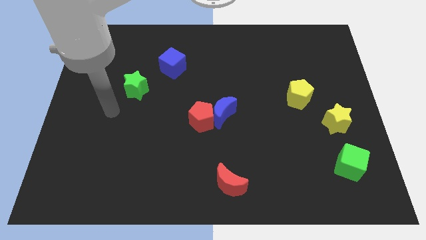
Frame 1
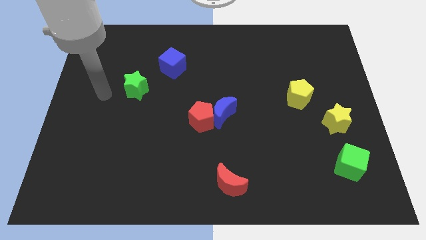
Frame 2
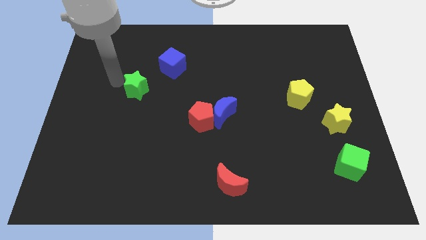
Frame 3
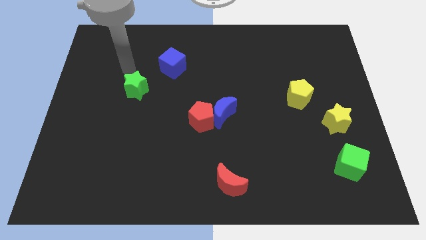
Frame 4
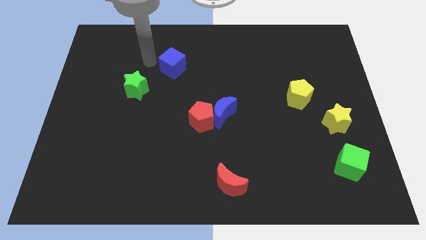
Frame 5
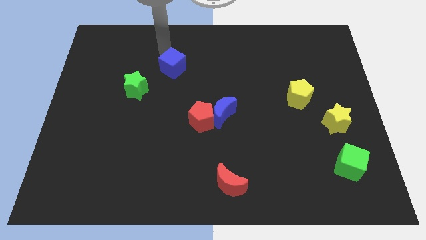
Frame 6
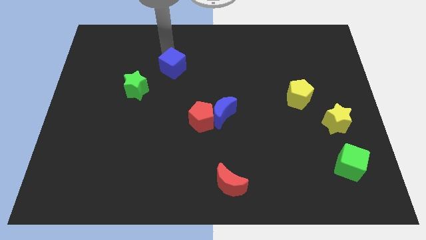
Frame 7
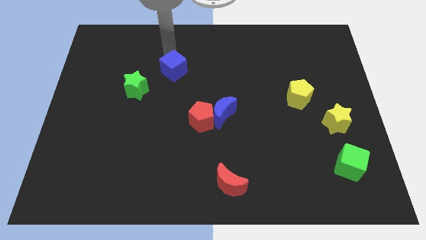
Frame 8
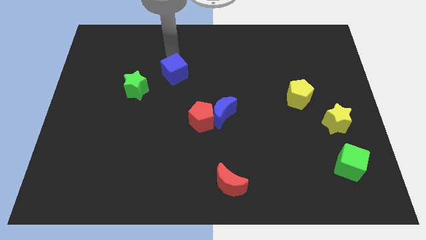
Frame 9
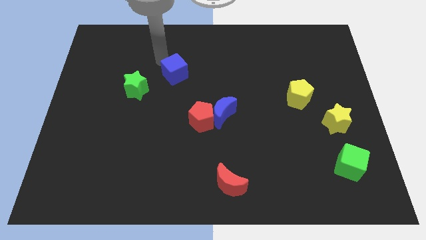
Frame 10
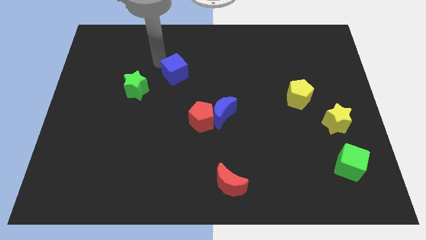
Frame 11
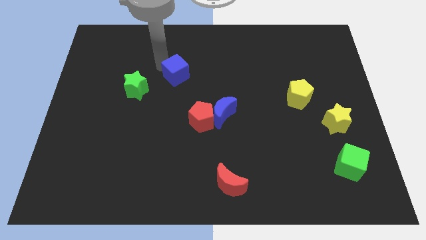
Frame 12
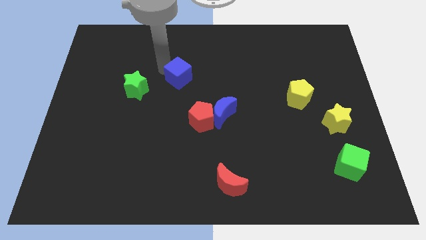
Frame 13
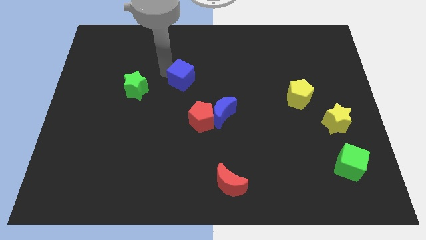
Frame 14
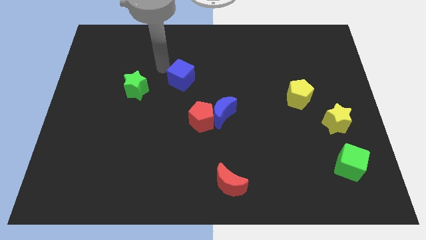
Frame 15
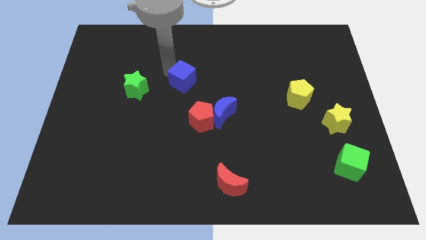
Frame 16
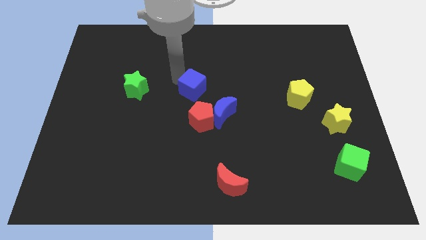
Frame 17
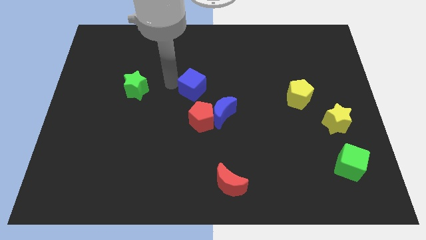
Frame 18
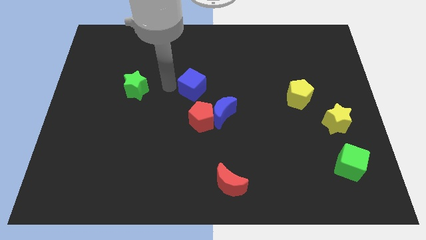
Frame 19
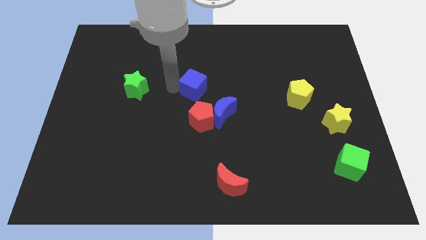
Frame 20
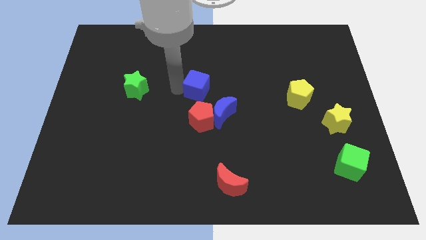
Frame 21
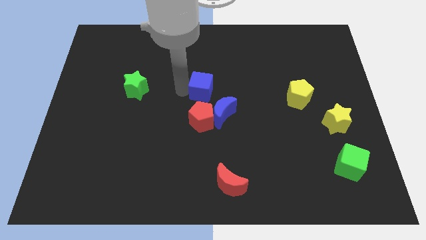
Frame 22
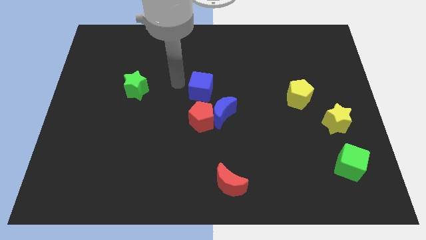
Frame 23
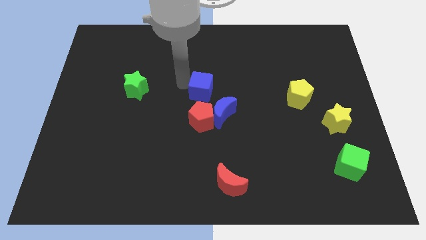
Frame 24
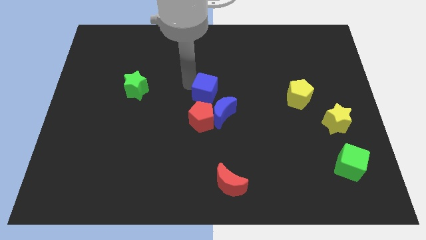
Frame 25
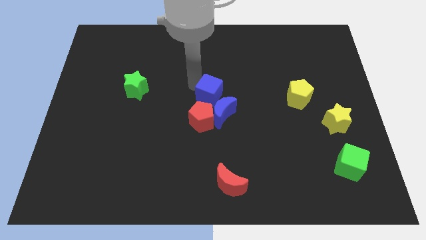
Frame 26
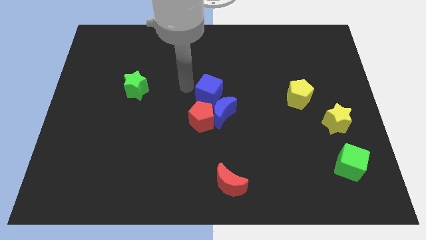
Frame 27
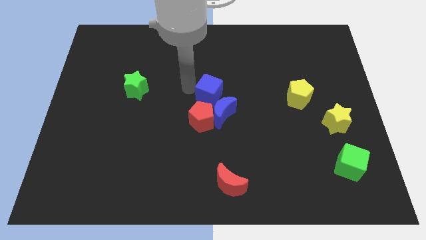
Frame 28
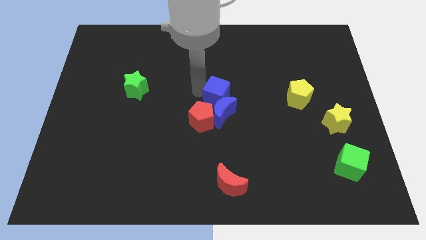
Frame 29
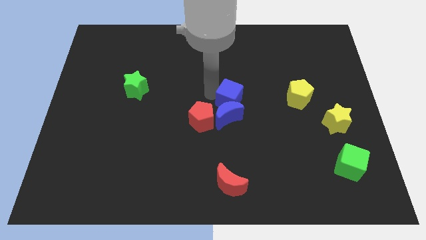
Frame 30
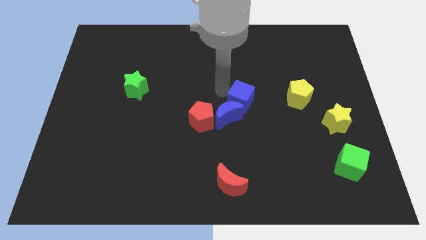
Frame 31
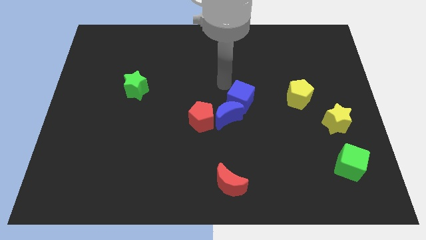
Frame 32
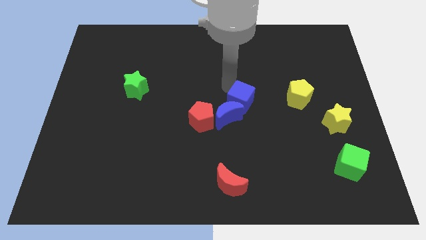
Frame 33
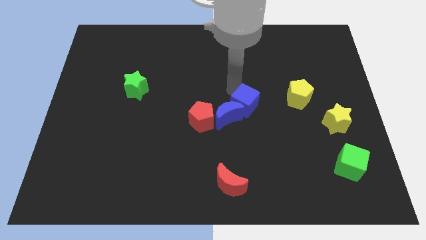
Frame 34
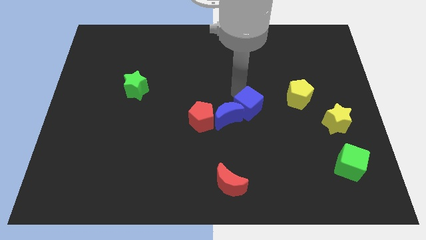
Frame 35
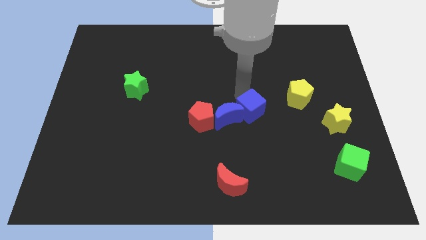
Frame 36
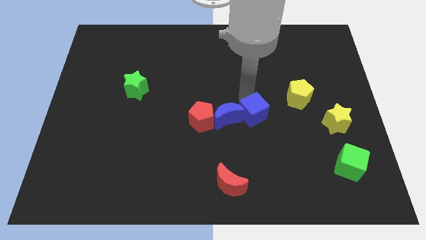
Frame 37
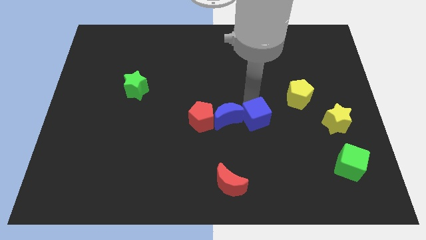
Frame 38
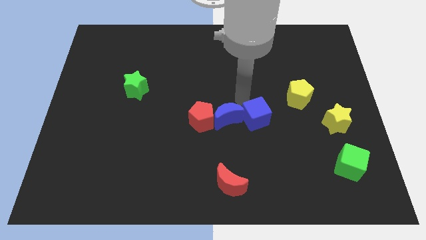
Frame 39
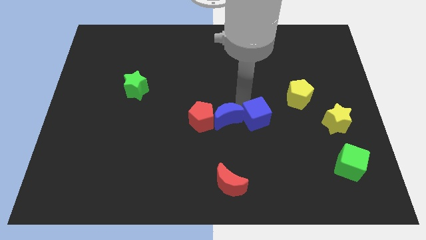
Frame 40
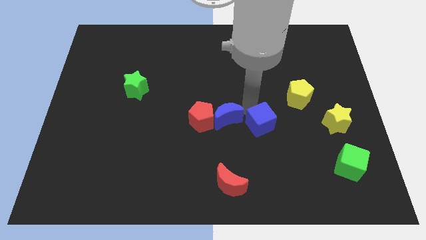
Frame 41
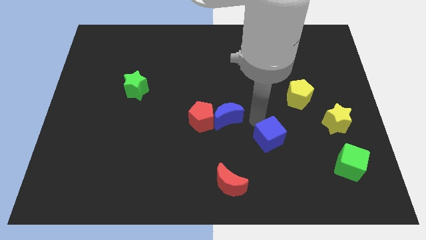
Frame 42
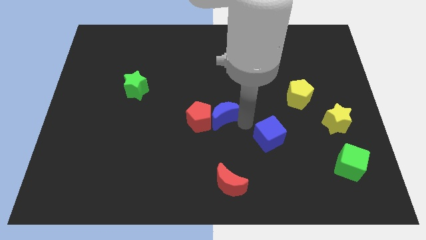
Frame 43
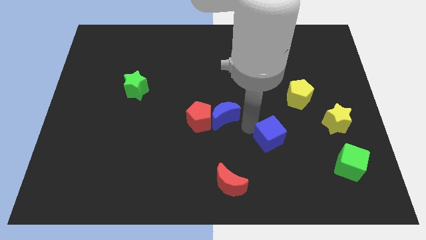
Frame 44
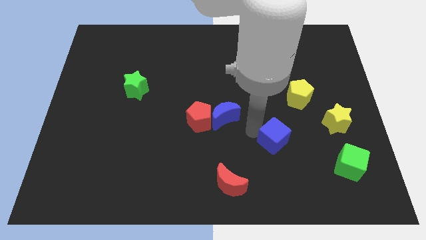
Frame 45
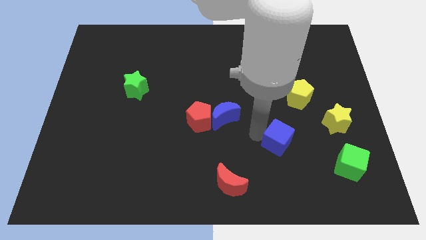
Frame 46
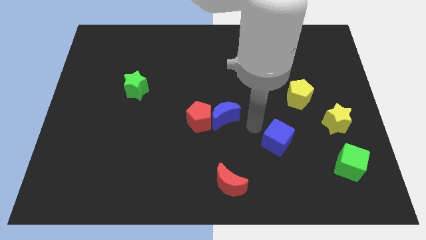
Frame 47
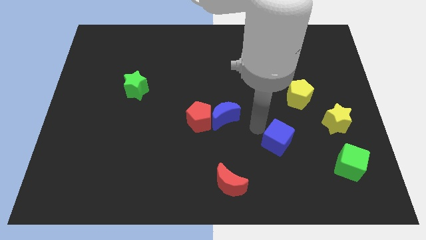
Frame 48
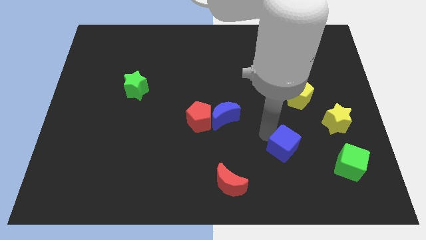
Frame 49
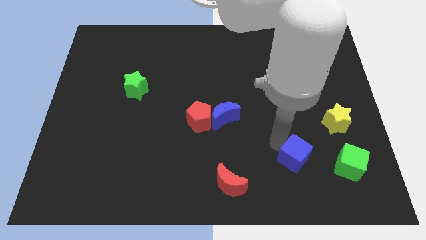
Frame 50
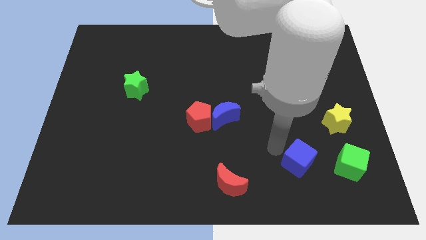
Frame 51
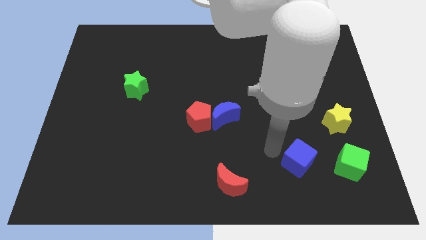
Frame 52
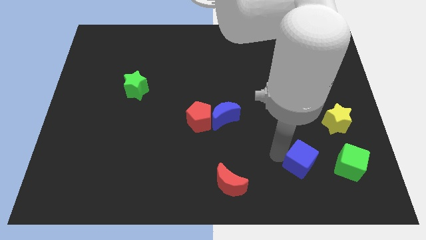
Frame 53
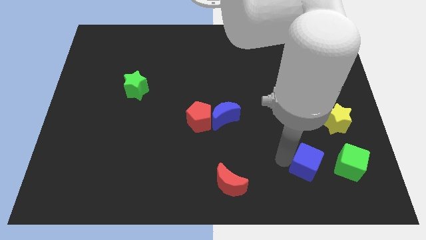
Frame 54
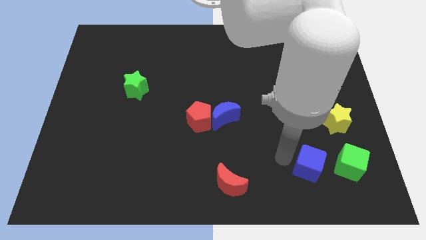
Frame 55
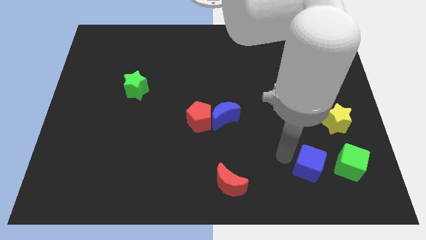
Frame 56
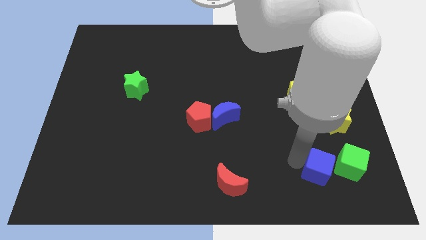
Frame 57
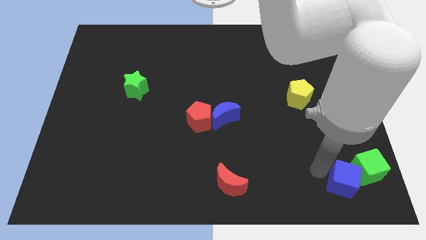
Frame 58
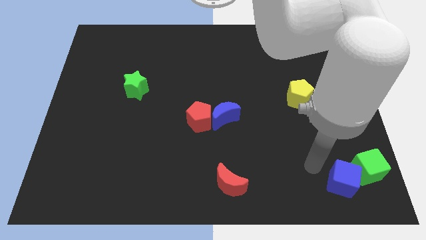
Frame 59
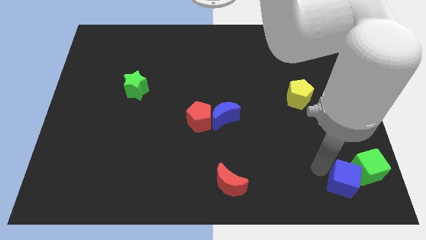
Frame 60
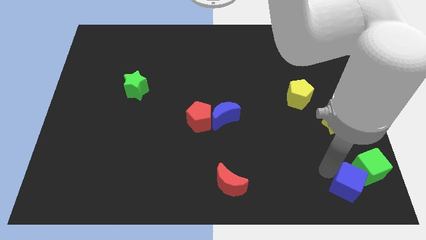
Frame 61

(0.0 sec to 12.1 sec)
push the blue cube to the bottom right

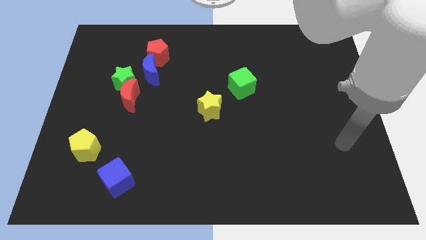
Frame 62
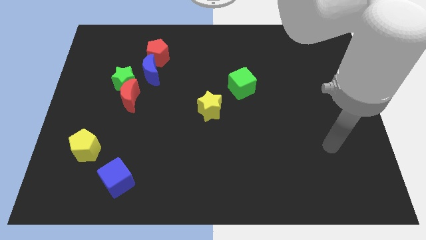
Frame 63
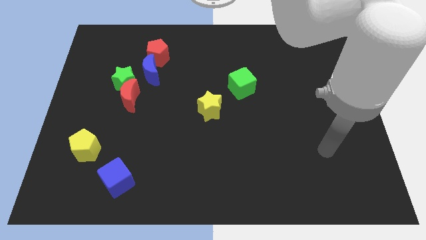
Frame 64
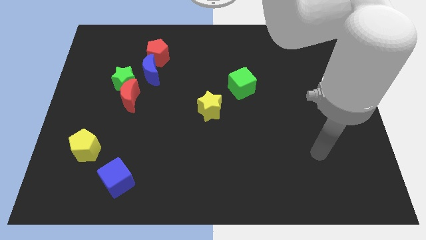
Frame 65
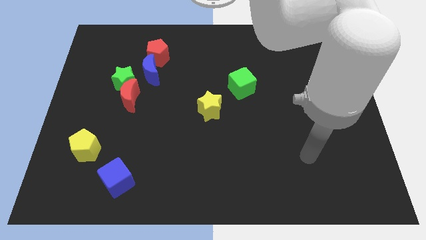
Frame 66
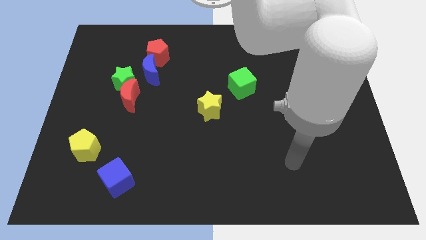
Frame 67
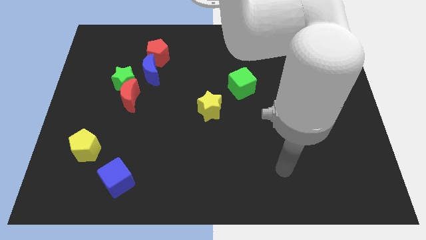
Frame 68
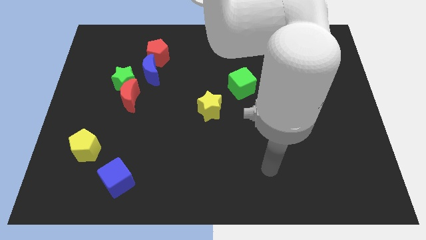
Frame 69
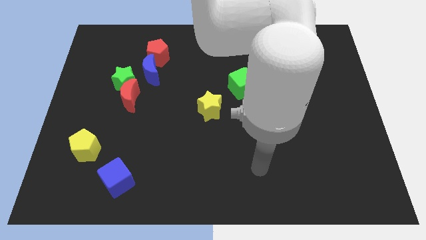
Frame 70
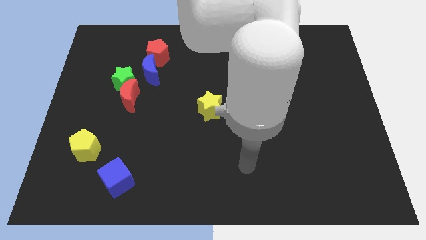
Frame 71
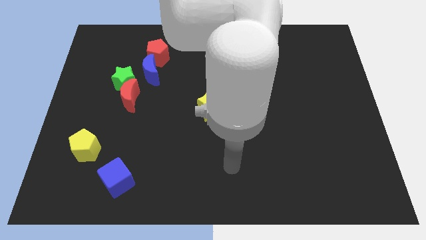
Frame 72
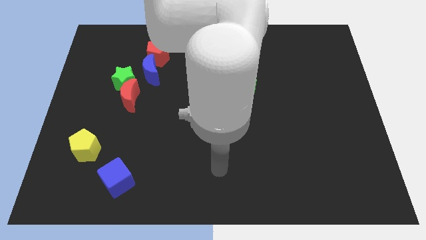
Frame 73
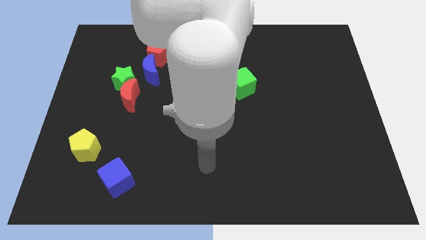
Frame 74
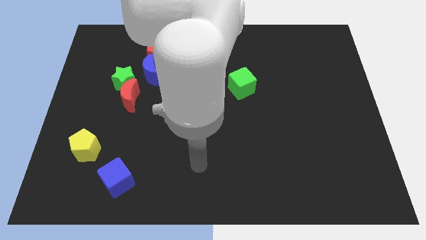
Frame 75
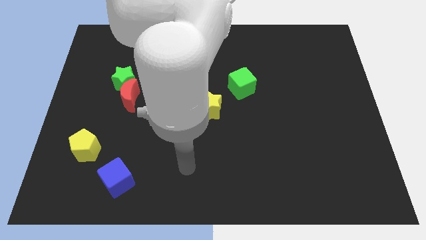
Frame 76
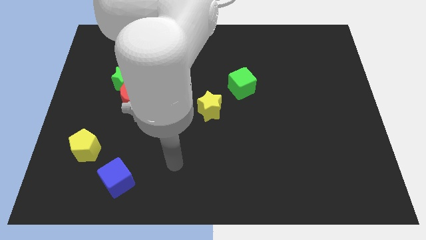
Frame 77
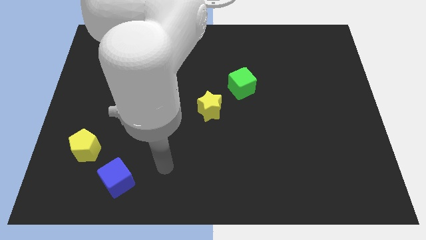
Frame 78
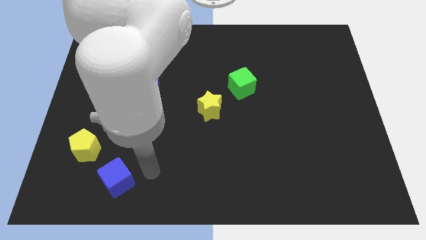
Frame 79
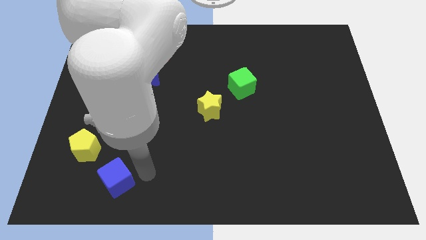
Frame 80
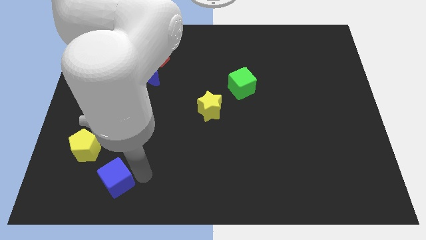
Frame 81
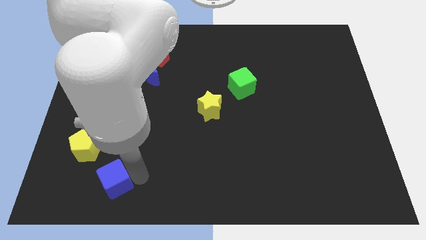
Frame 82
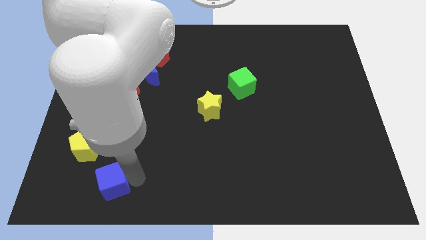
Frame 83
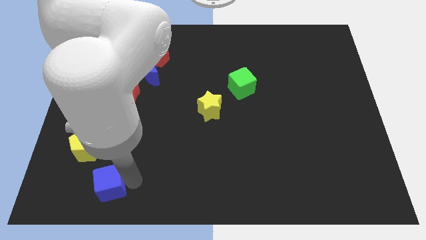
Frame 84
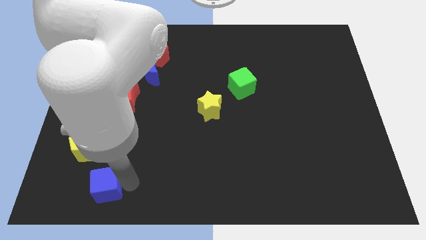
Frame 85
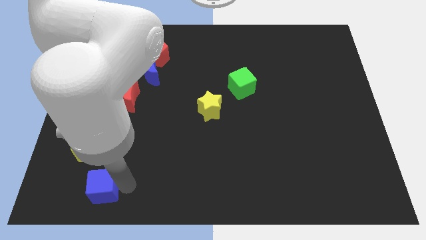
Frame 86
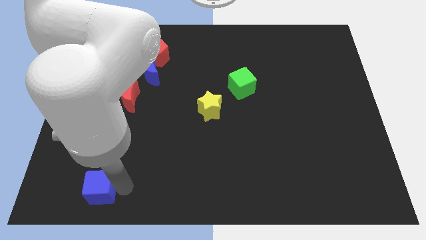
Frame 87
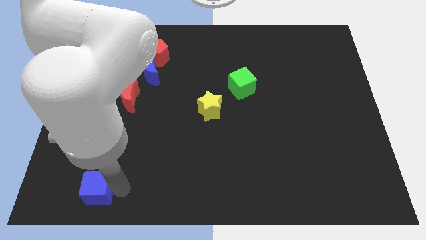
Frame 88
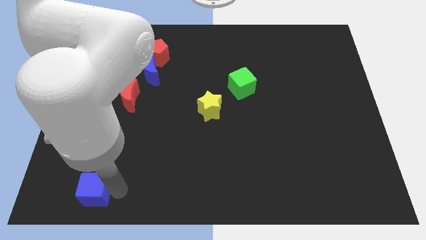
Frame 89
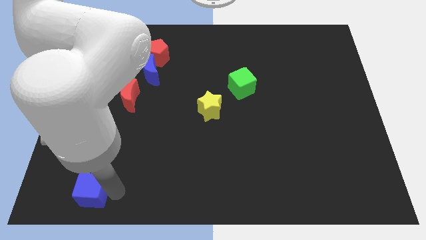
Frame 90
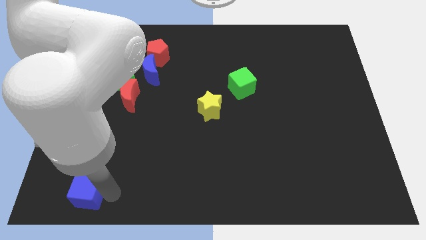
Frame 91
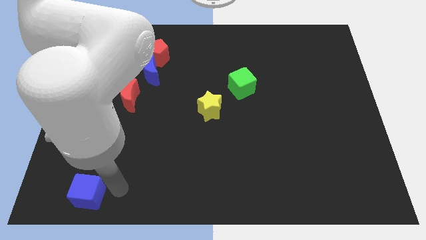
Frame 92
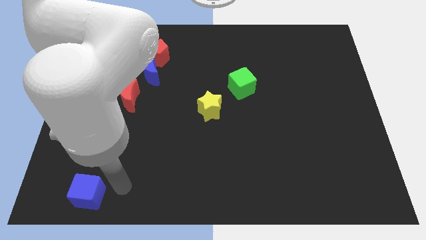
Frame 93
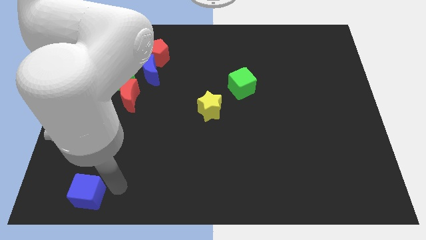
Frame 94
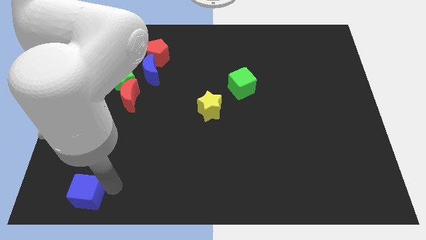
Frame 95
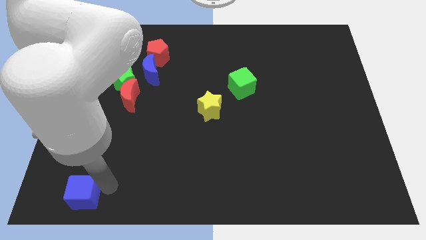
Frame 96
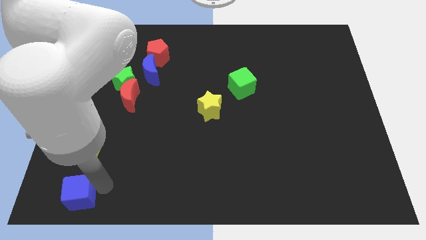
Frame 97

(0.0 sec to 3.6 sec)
put the blue cube to the bottom left corner
